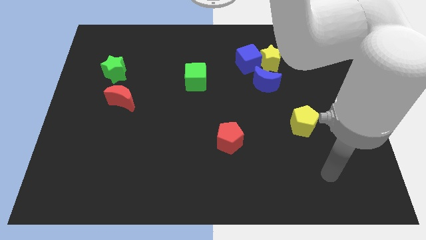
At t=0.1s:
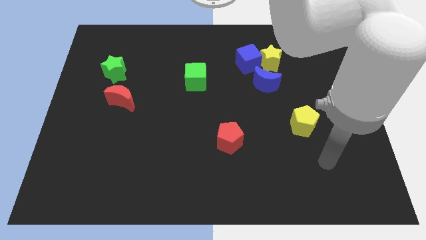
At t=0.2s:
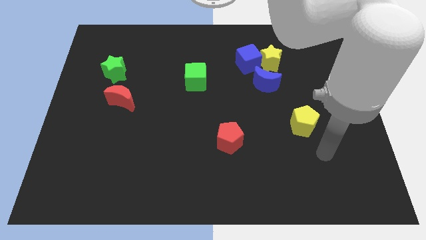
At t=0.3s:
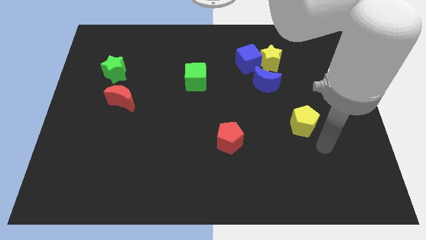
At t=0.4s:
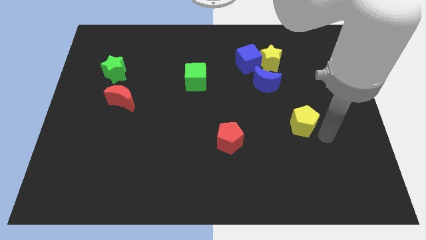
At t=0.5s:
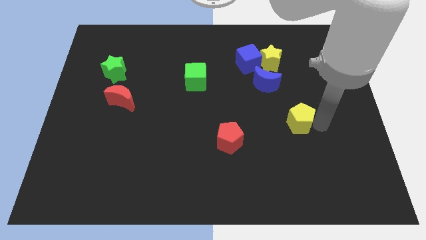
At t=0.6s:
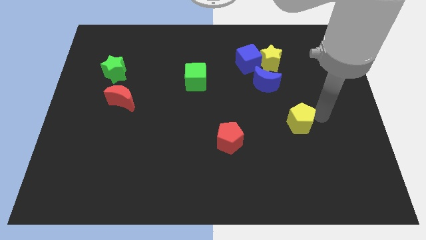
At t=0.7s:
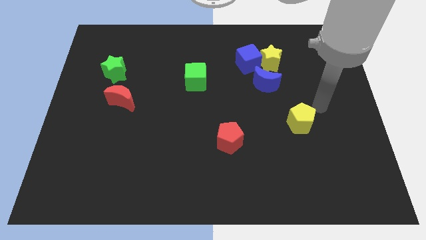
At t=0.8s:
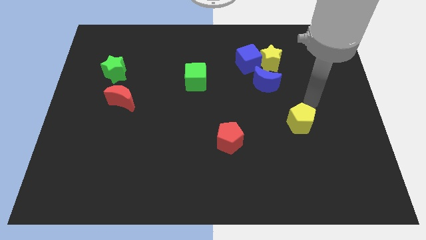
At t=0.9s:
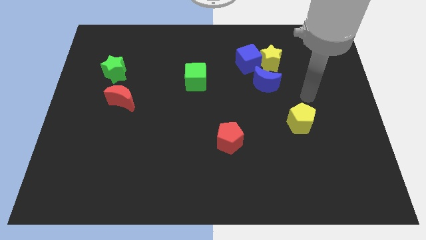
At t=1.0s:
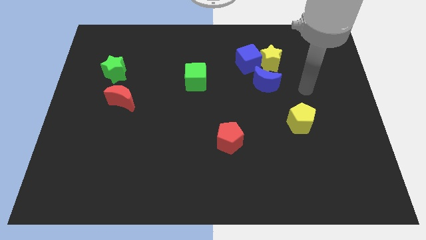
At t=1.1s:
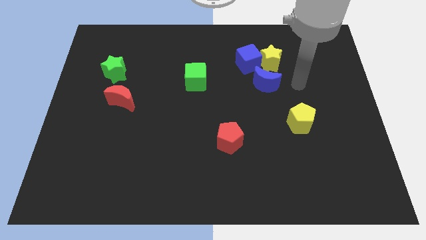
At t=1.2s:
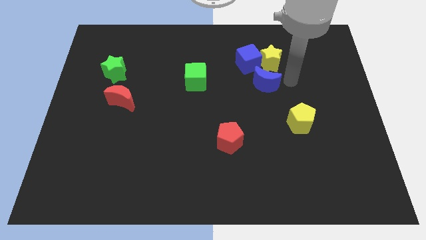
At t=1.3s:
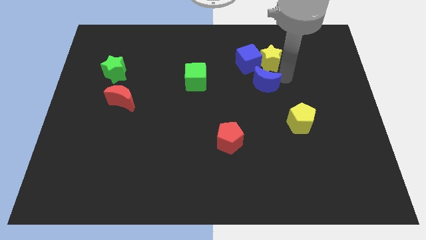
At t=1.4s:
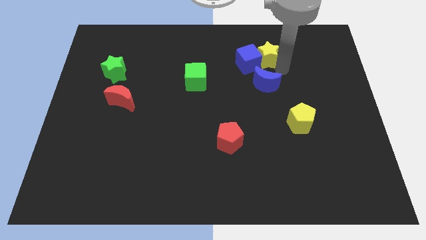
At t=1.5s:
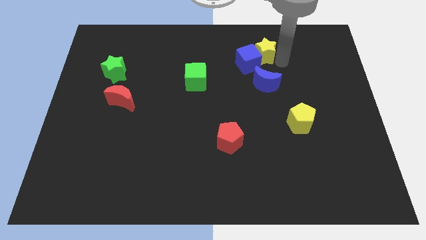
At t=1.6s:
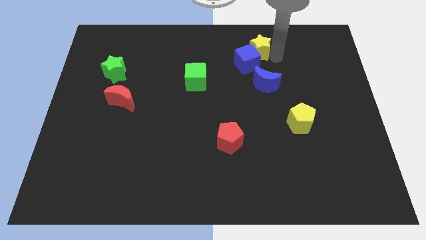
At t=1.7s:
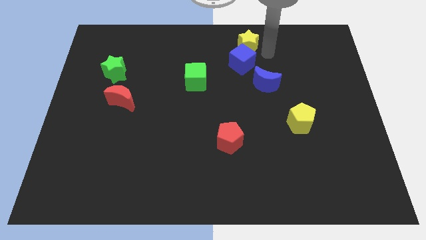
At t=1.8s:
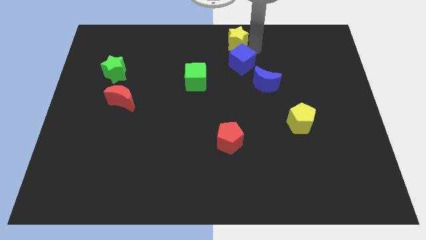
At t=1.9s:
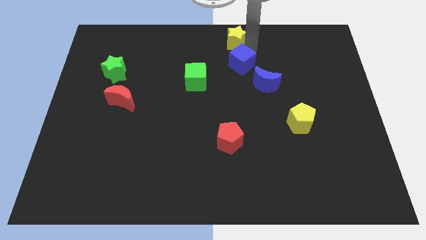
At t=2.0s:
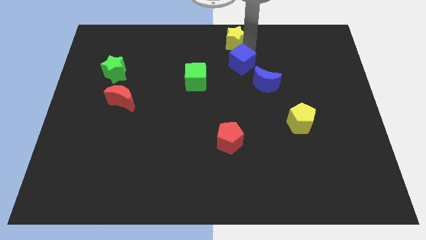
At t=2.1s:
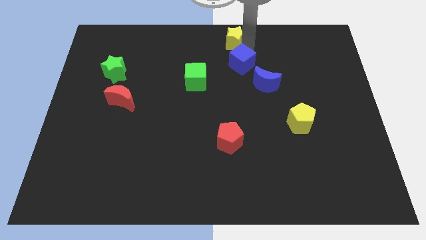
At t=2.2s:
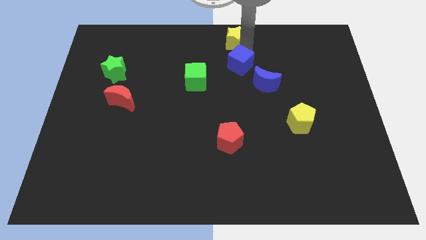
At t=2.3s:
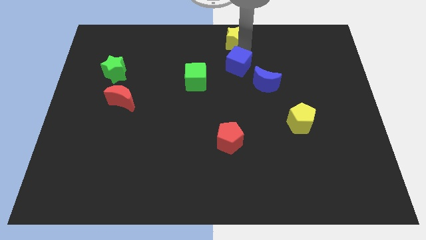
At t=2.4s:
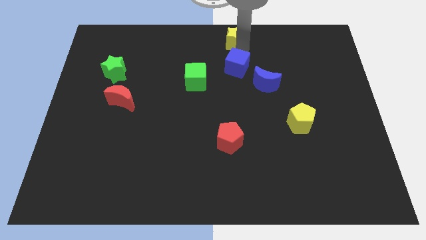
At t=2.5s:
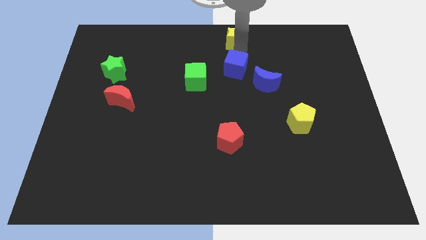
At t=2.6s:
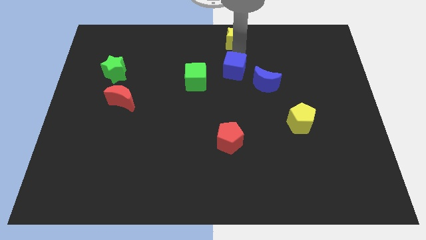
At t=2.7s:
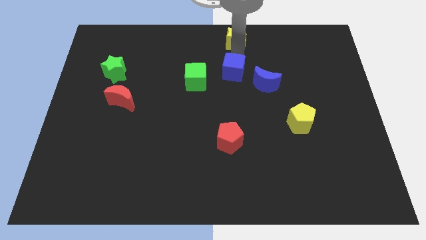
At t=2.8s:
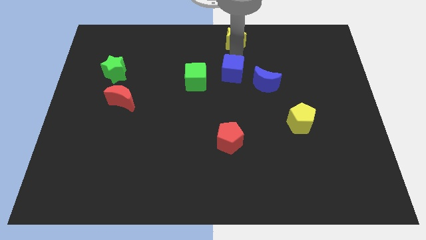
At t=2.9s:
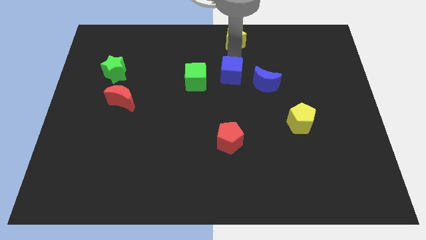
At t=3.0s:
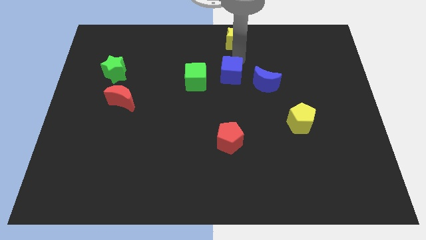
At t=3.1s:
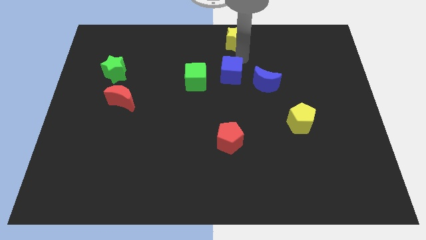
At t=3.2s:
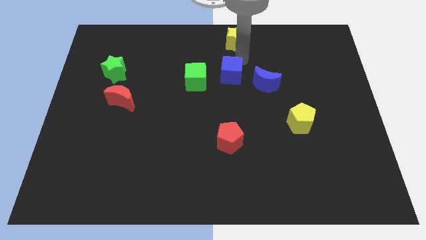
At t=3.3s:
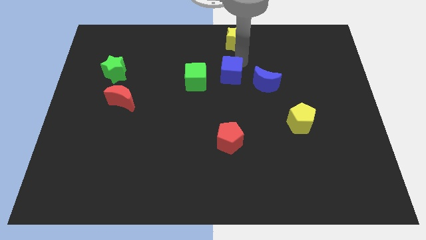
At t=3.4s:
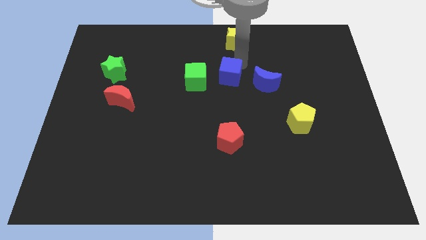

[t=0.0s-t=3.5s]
push the blue cube somewhat diagonally down and to the left

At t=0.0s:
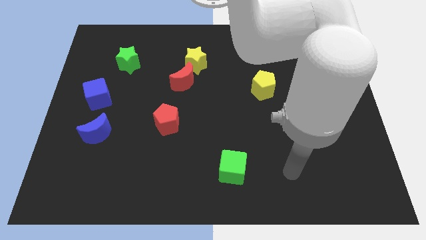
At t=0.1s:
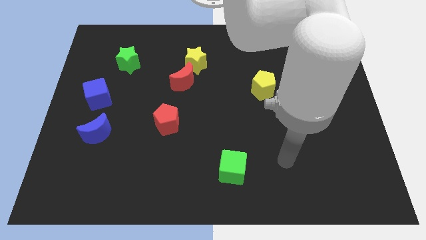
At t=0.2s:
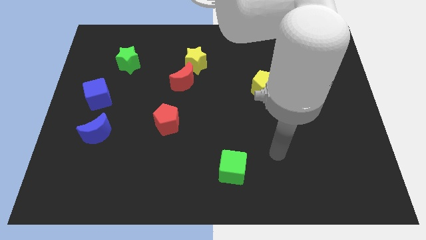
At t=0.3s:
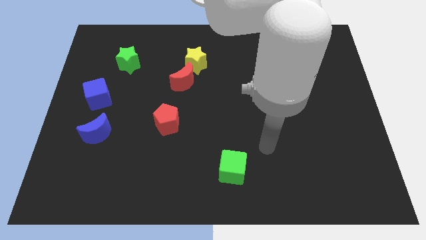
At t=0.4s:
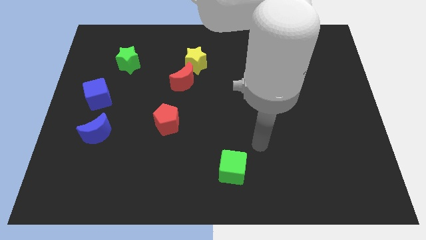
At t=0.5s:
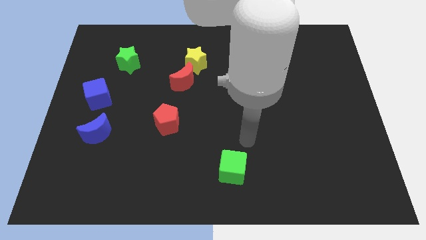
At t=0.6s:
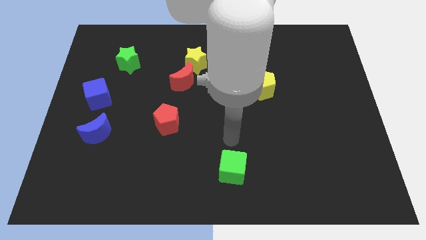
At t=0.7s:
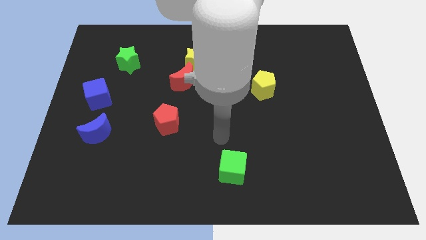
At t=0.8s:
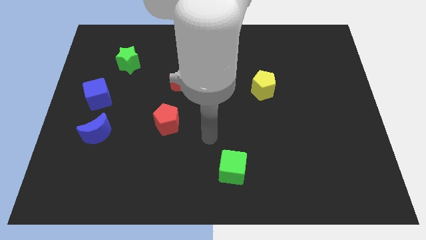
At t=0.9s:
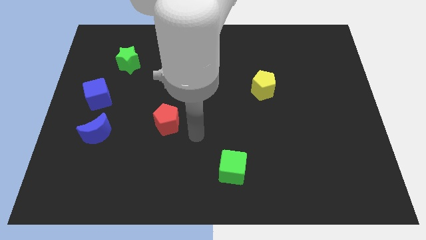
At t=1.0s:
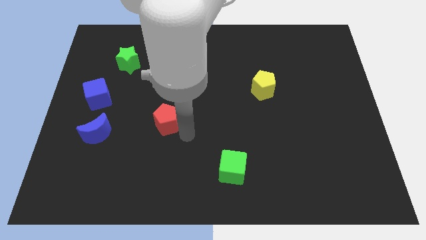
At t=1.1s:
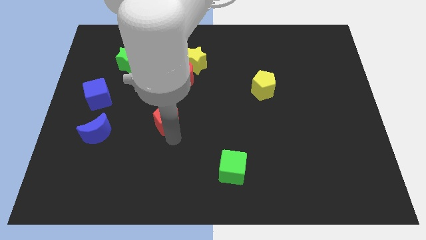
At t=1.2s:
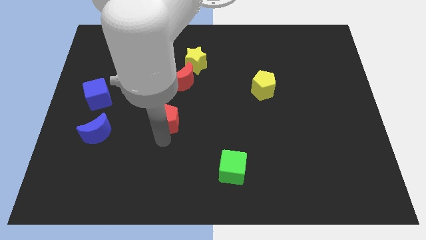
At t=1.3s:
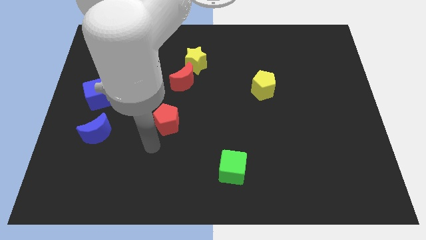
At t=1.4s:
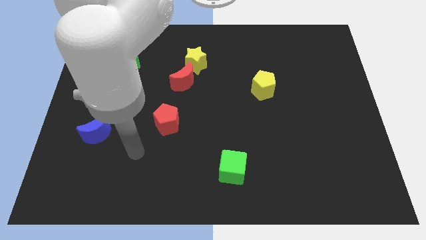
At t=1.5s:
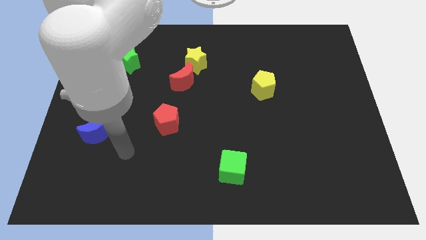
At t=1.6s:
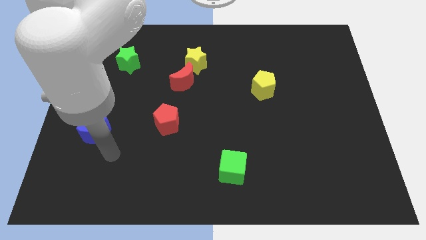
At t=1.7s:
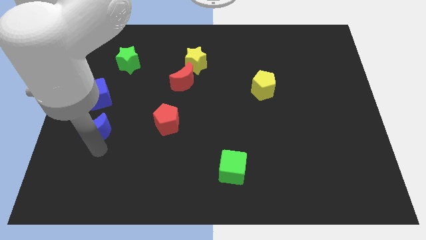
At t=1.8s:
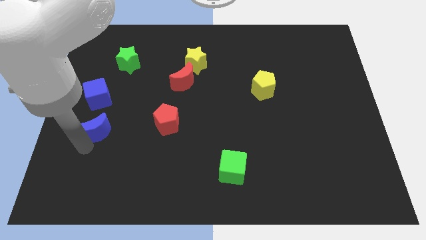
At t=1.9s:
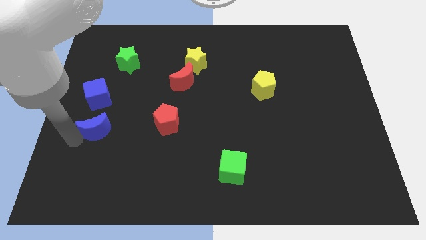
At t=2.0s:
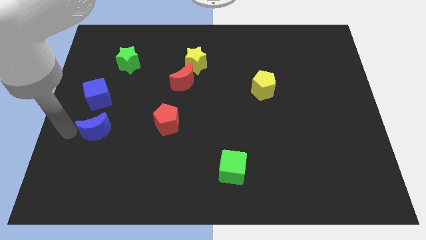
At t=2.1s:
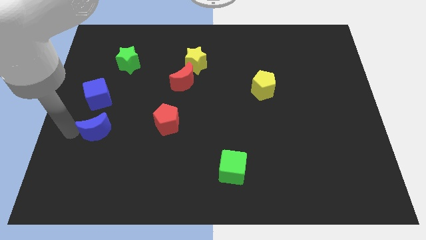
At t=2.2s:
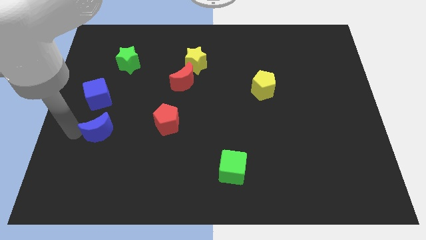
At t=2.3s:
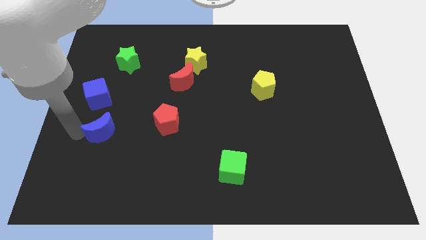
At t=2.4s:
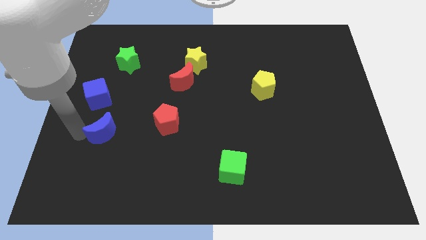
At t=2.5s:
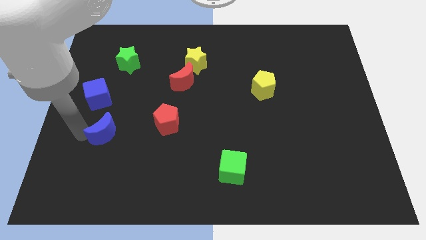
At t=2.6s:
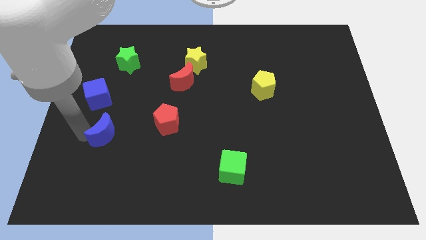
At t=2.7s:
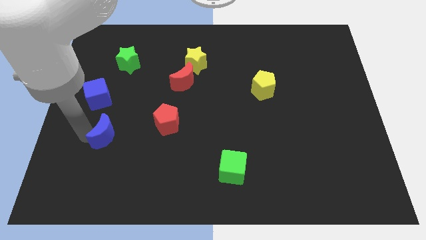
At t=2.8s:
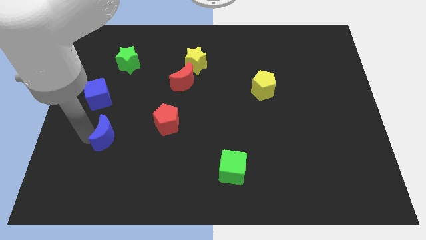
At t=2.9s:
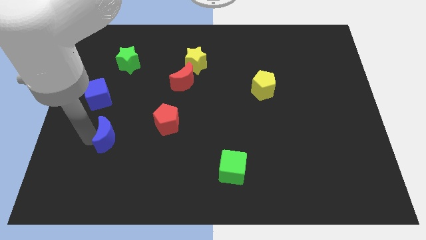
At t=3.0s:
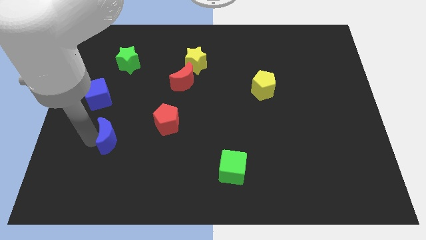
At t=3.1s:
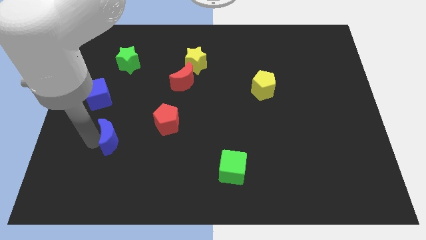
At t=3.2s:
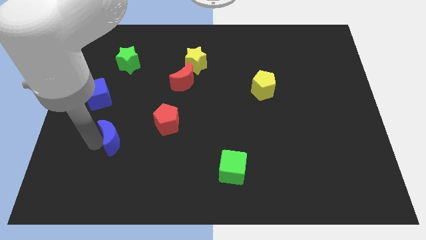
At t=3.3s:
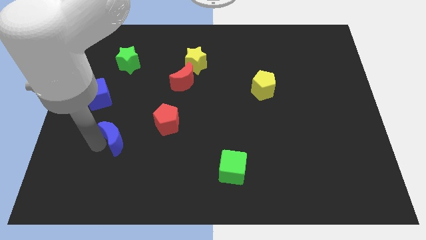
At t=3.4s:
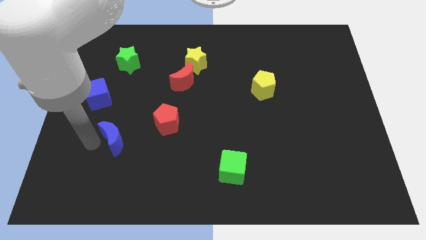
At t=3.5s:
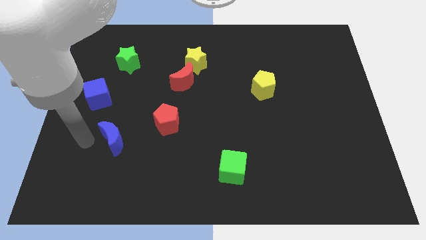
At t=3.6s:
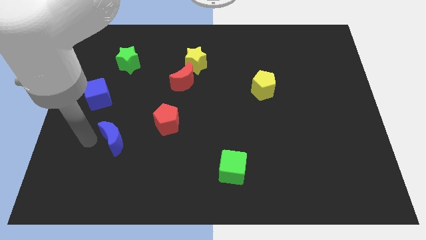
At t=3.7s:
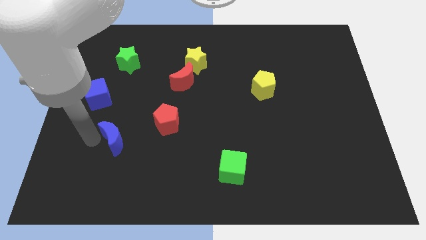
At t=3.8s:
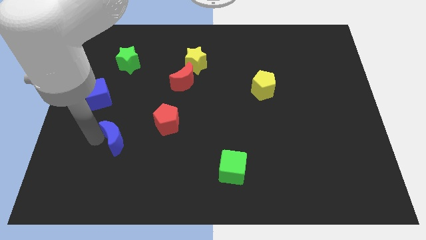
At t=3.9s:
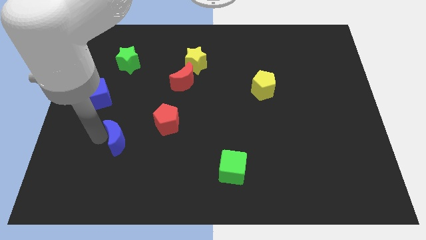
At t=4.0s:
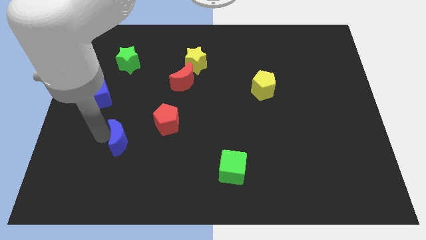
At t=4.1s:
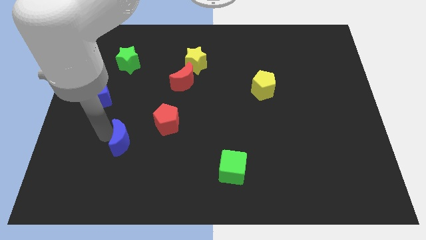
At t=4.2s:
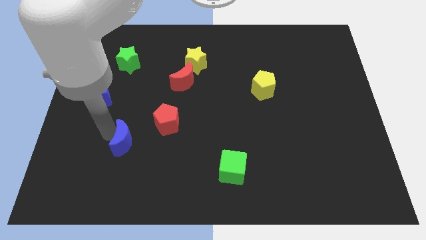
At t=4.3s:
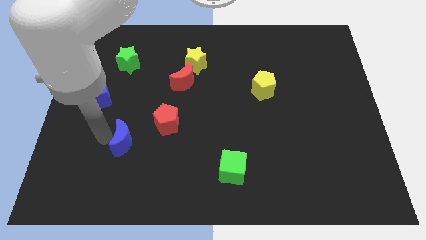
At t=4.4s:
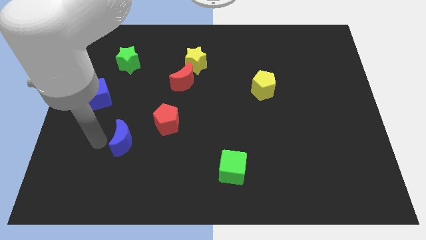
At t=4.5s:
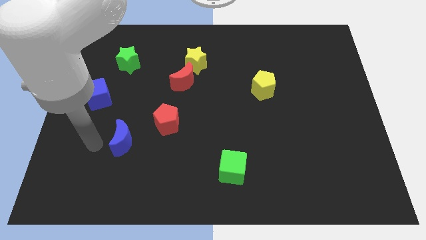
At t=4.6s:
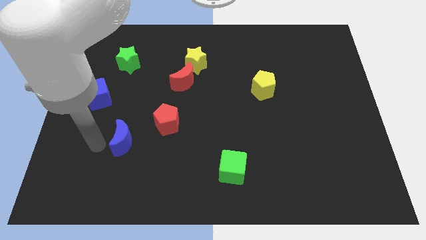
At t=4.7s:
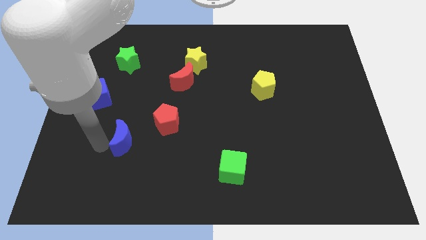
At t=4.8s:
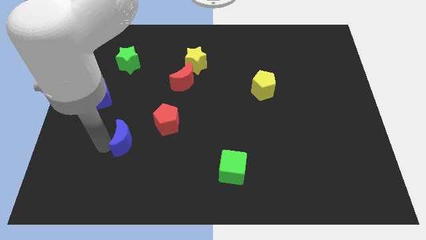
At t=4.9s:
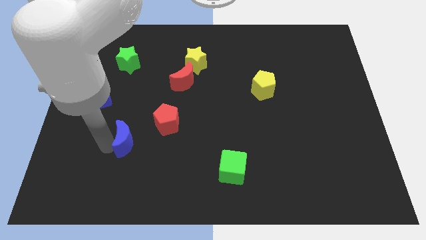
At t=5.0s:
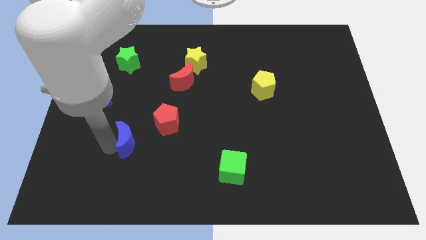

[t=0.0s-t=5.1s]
slide the blue moon to the right a little
